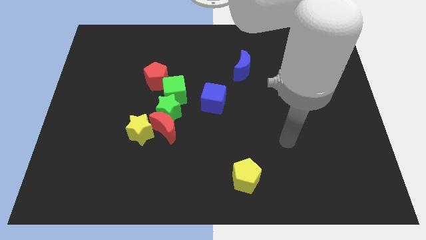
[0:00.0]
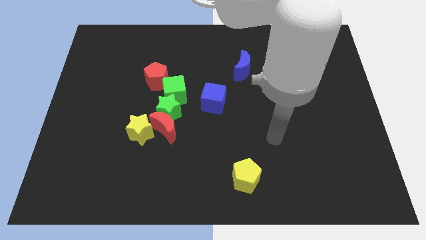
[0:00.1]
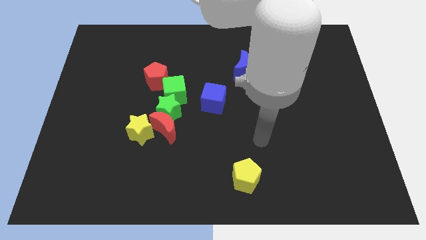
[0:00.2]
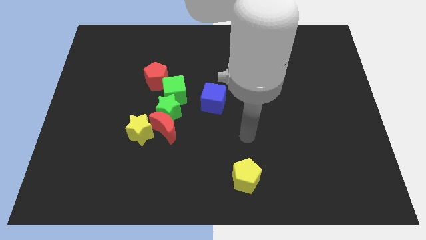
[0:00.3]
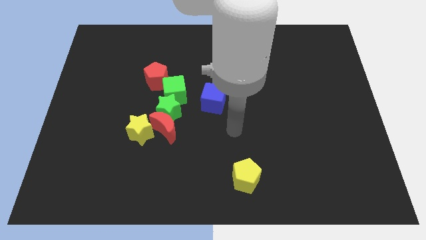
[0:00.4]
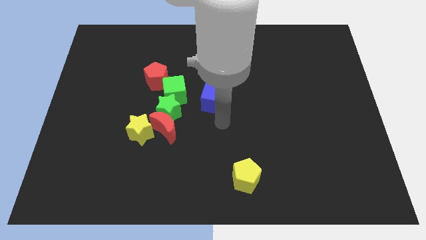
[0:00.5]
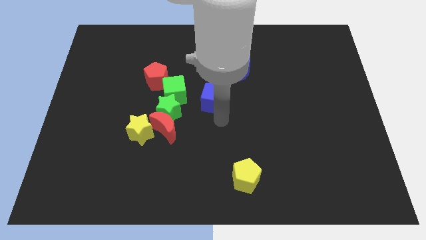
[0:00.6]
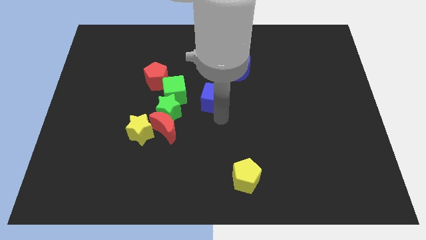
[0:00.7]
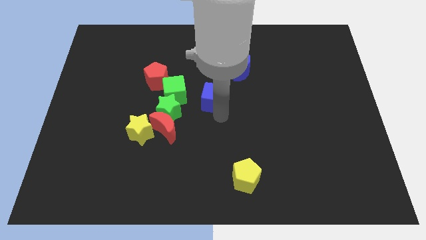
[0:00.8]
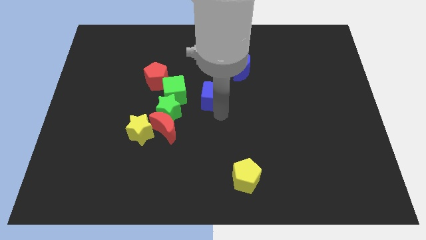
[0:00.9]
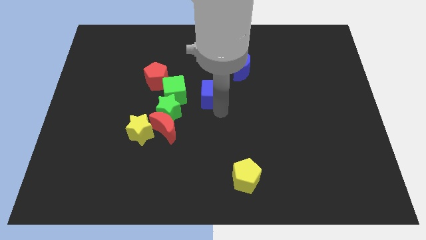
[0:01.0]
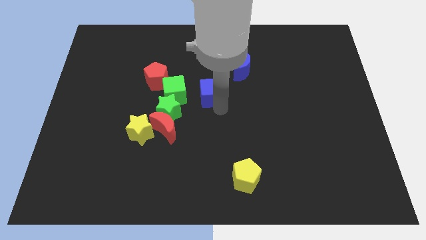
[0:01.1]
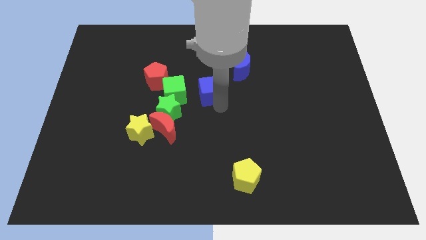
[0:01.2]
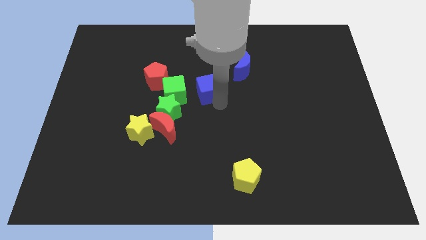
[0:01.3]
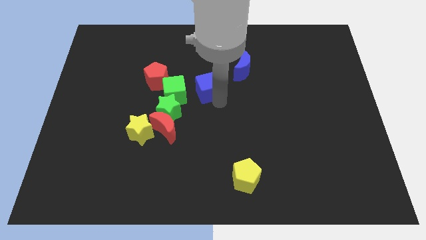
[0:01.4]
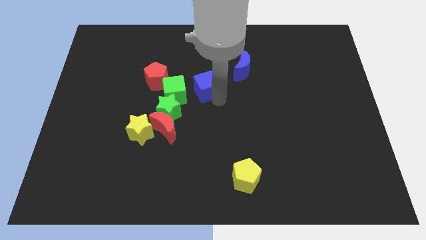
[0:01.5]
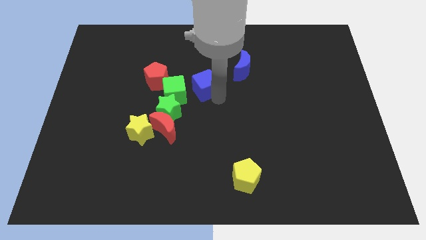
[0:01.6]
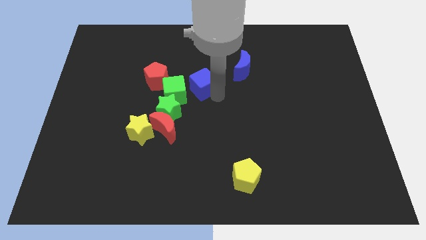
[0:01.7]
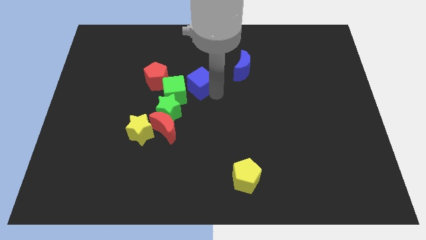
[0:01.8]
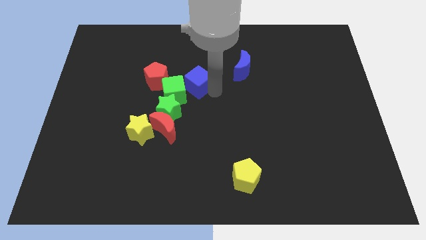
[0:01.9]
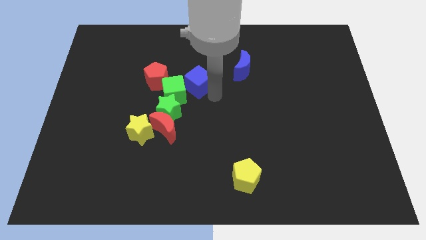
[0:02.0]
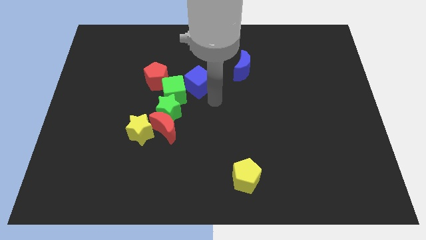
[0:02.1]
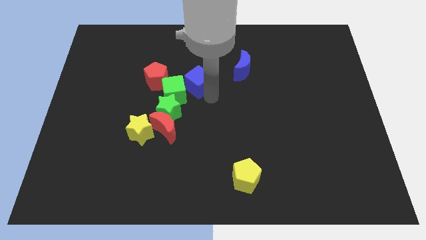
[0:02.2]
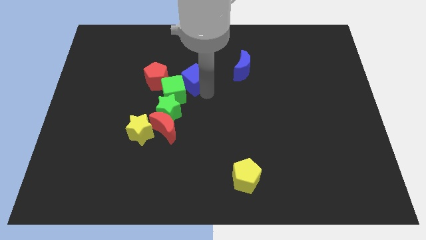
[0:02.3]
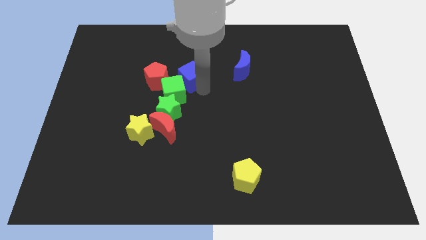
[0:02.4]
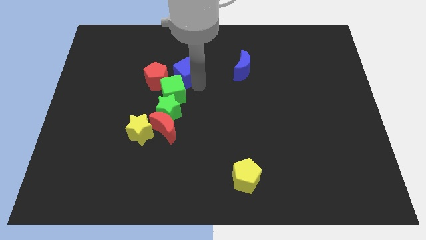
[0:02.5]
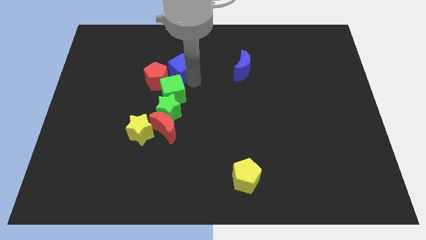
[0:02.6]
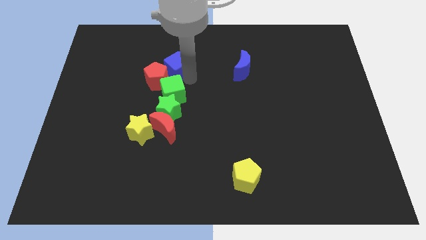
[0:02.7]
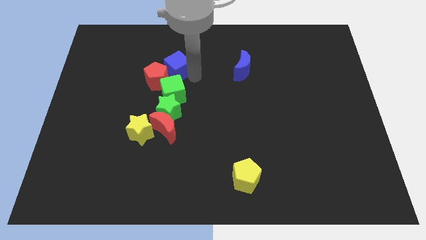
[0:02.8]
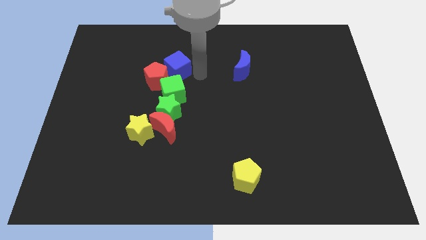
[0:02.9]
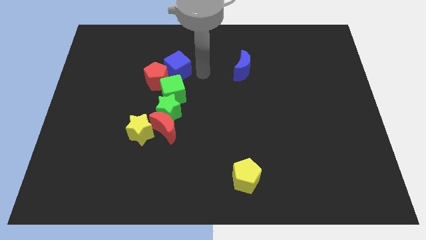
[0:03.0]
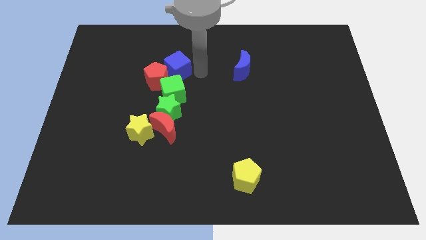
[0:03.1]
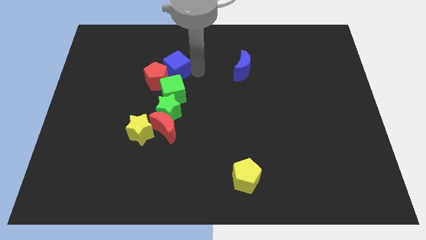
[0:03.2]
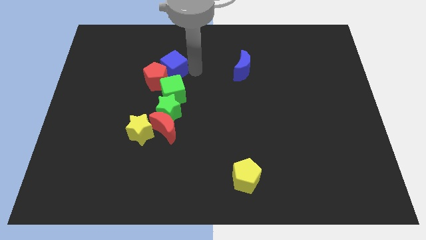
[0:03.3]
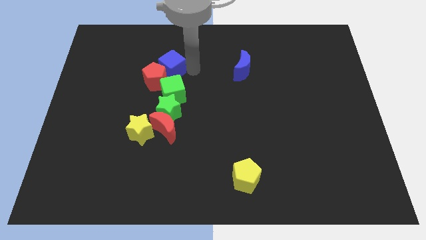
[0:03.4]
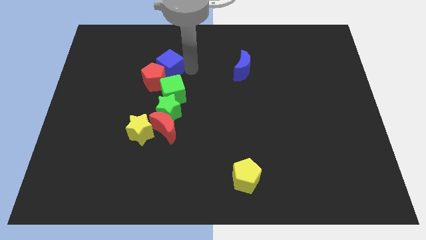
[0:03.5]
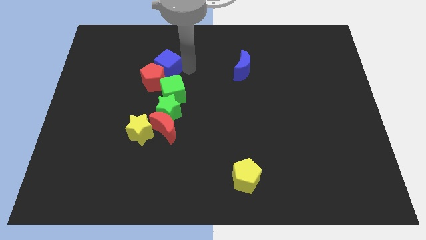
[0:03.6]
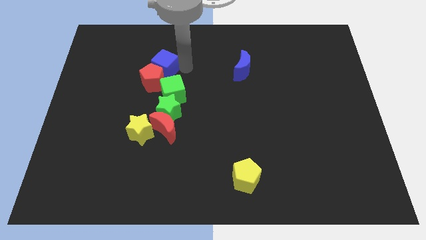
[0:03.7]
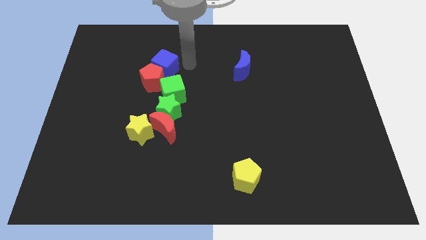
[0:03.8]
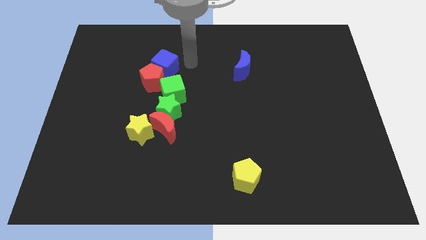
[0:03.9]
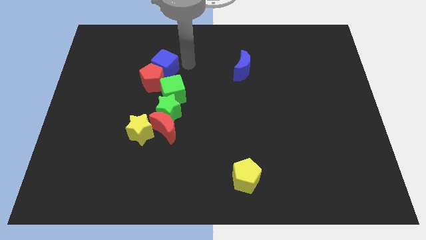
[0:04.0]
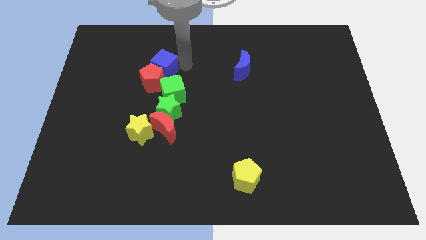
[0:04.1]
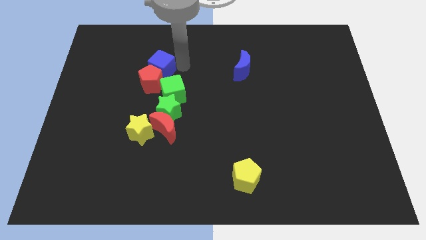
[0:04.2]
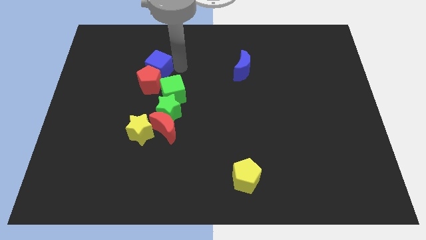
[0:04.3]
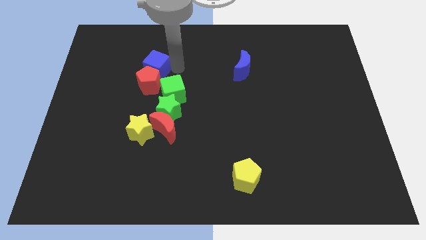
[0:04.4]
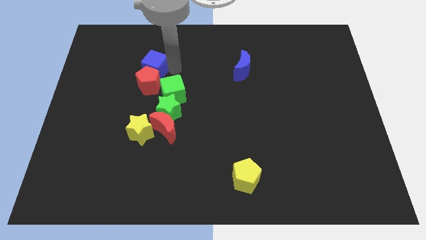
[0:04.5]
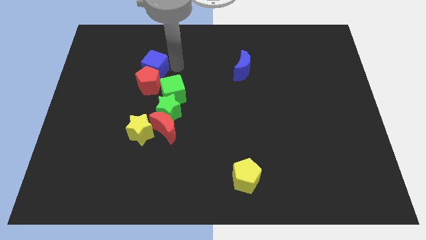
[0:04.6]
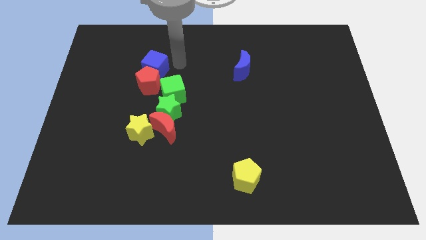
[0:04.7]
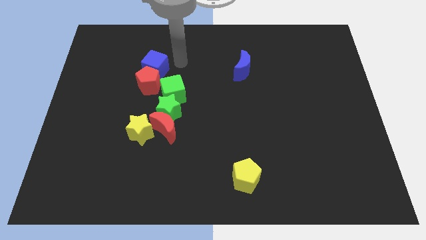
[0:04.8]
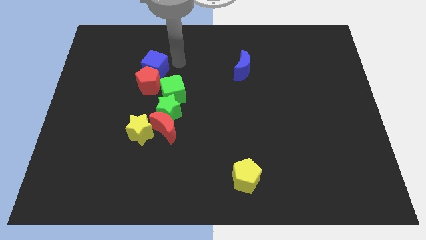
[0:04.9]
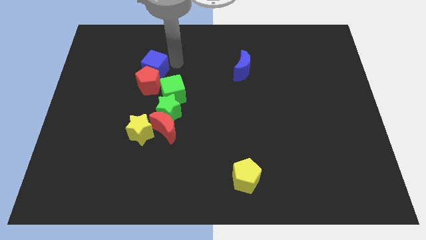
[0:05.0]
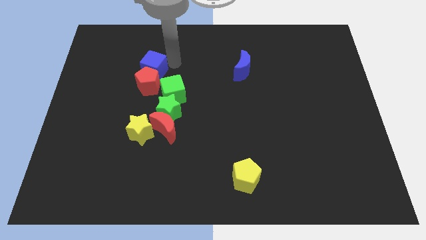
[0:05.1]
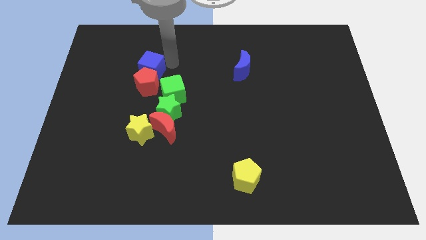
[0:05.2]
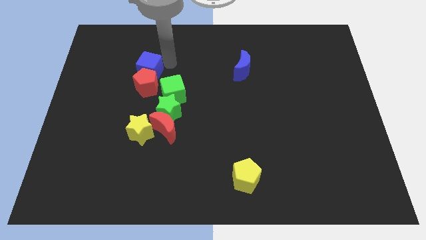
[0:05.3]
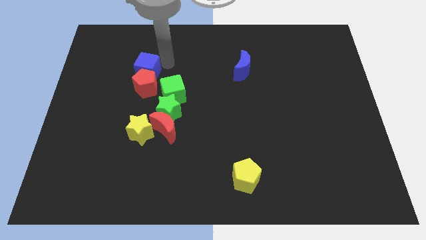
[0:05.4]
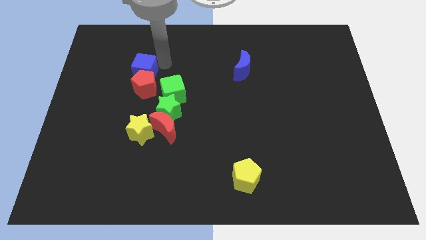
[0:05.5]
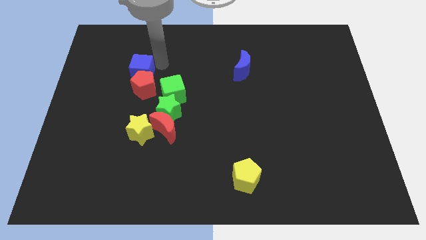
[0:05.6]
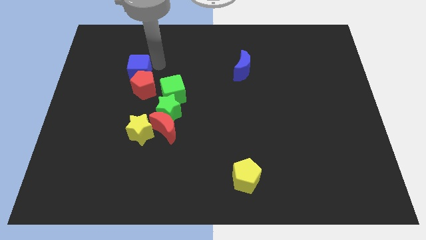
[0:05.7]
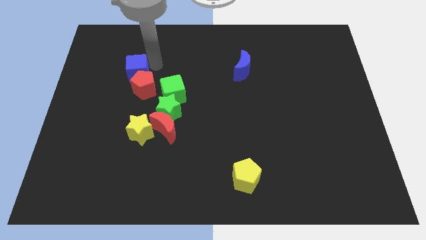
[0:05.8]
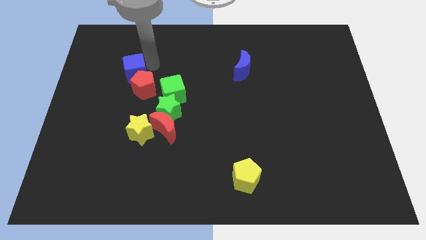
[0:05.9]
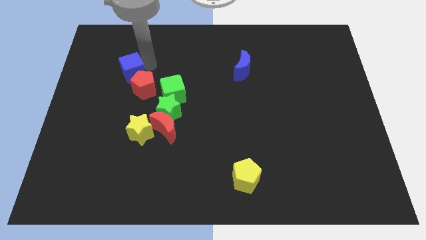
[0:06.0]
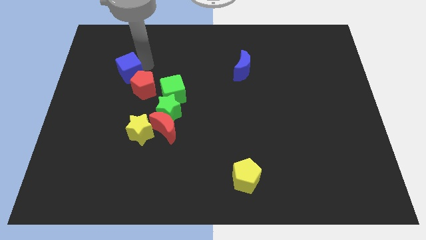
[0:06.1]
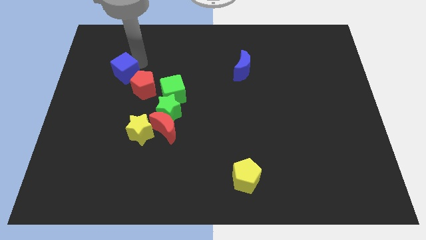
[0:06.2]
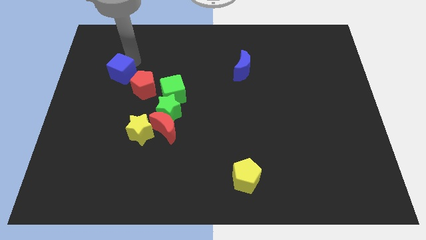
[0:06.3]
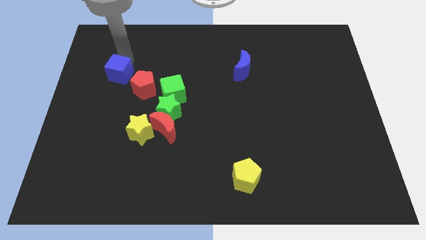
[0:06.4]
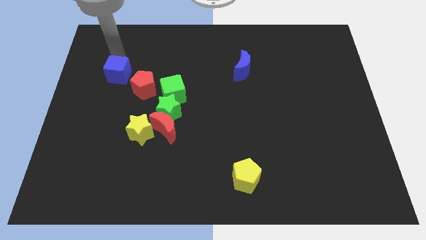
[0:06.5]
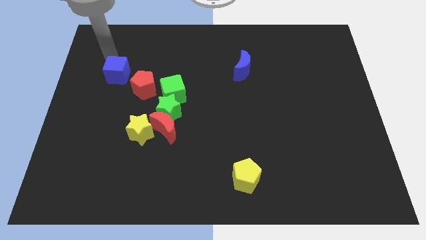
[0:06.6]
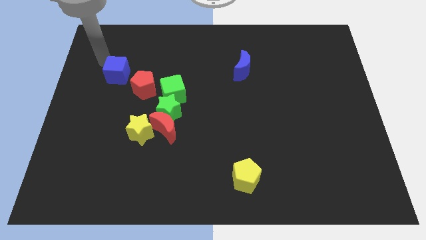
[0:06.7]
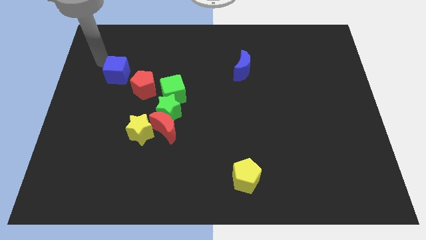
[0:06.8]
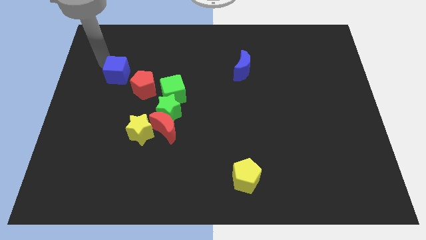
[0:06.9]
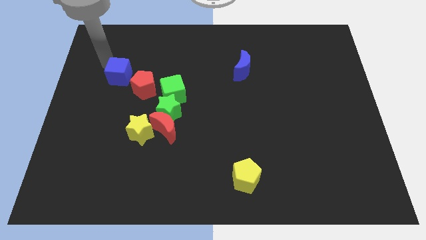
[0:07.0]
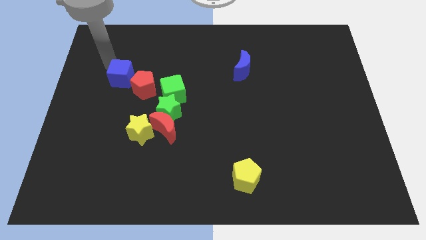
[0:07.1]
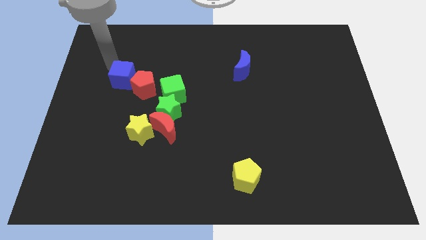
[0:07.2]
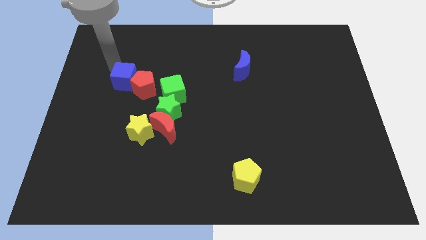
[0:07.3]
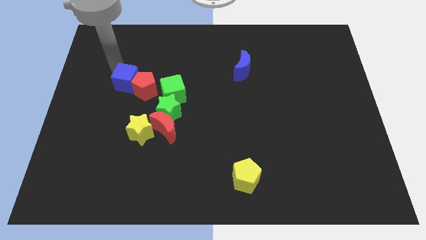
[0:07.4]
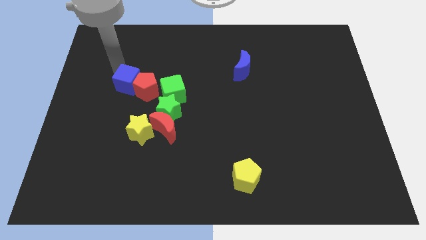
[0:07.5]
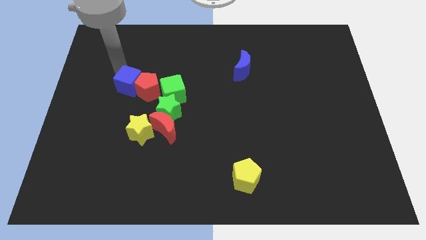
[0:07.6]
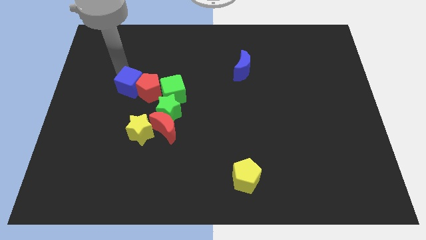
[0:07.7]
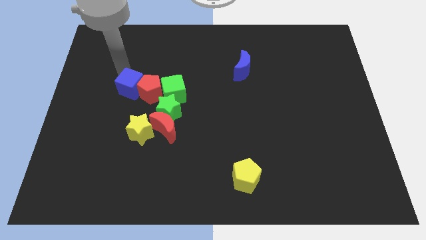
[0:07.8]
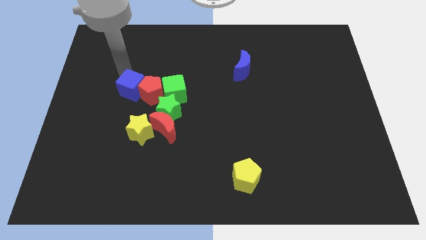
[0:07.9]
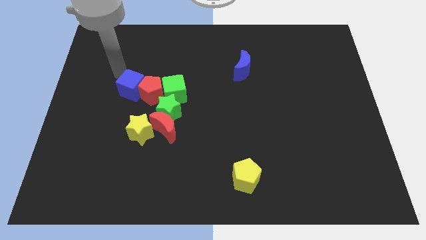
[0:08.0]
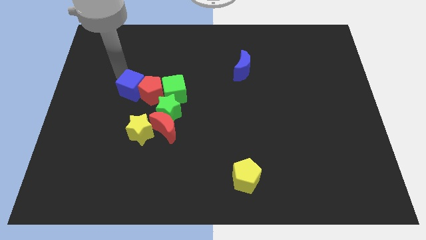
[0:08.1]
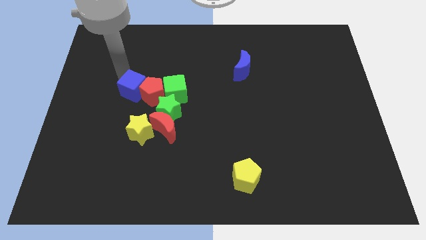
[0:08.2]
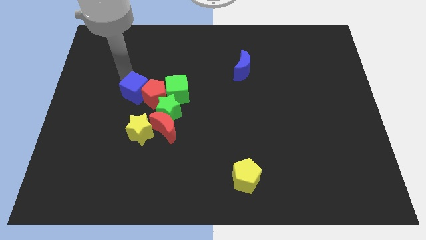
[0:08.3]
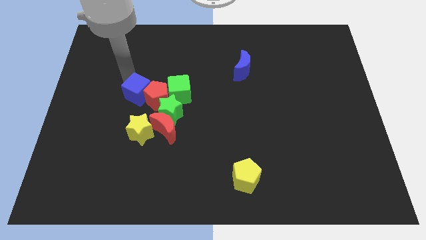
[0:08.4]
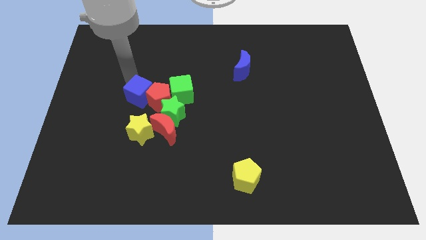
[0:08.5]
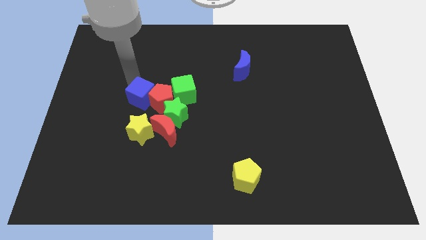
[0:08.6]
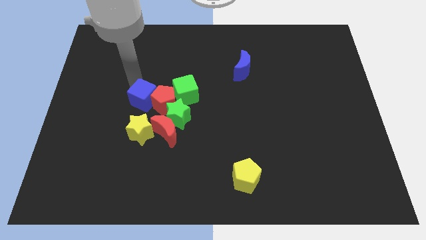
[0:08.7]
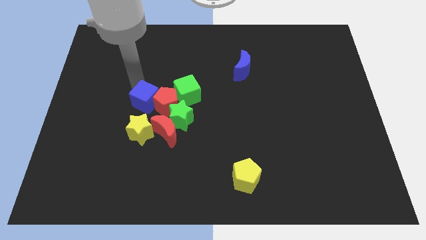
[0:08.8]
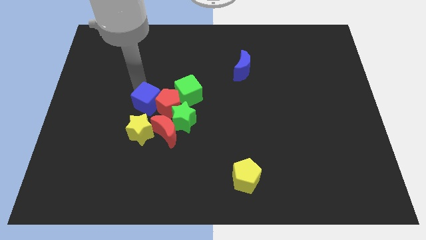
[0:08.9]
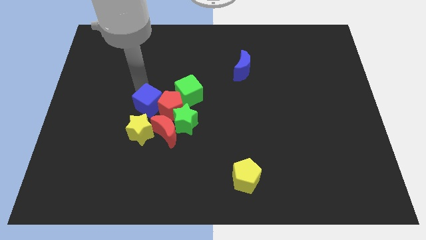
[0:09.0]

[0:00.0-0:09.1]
push the blue cube to the bottom left side of the green cube
